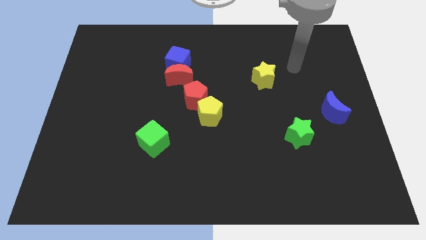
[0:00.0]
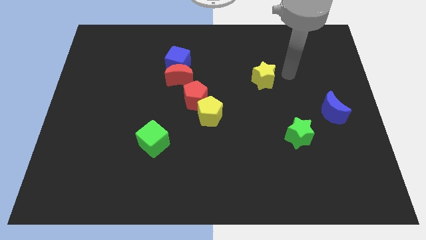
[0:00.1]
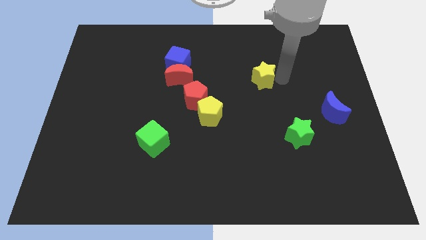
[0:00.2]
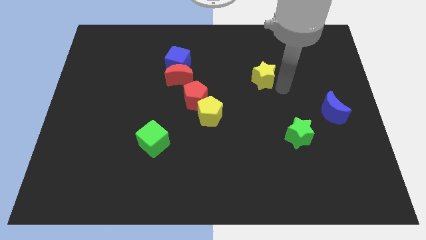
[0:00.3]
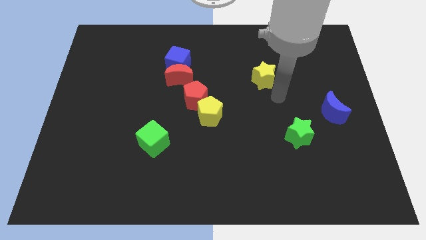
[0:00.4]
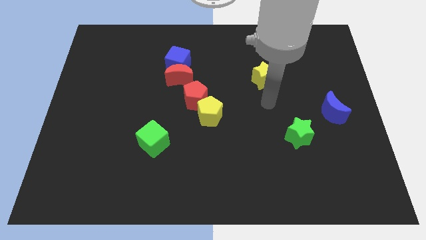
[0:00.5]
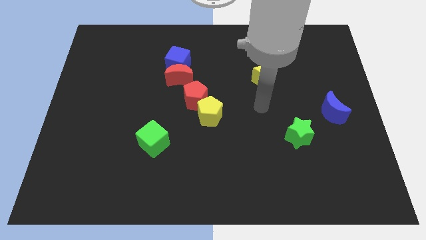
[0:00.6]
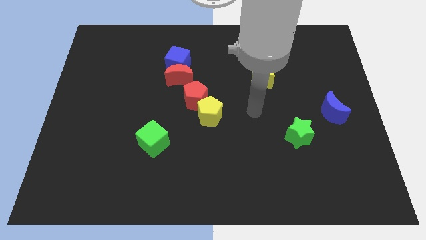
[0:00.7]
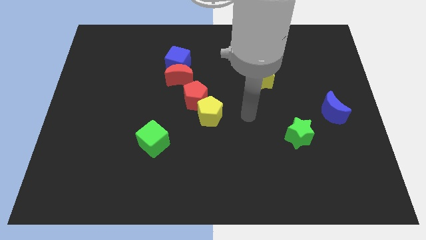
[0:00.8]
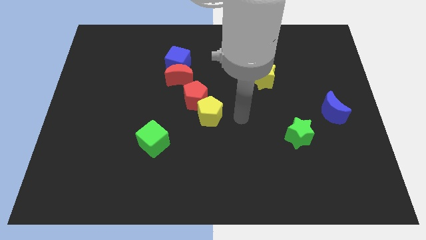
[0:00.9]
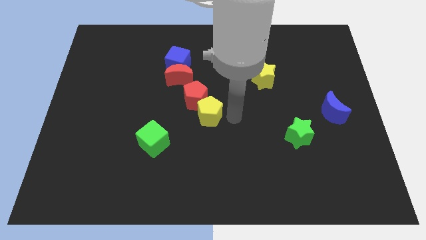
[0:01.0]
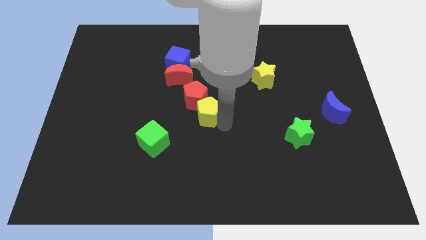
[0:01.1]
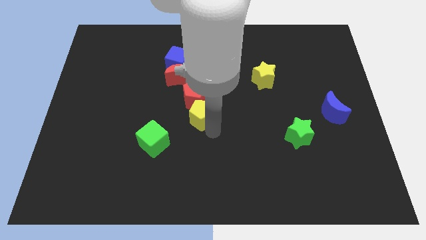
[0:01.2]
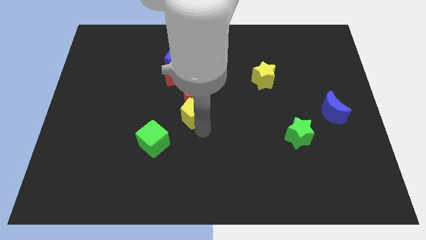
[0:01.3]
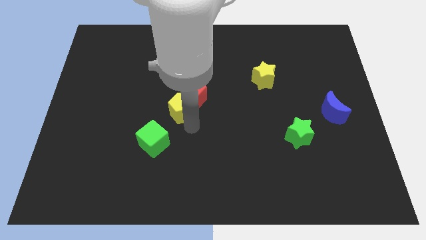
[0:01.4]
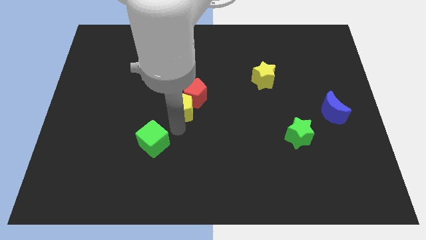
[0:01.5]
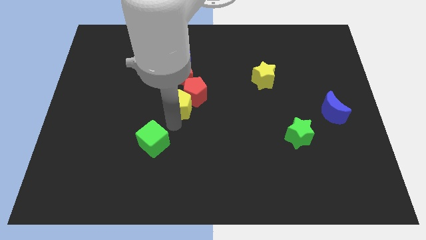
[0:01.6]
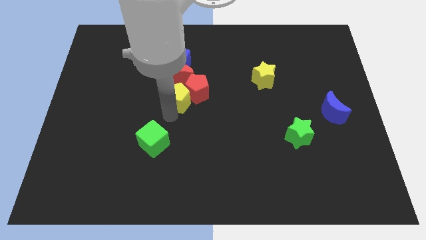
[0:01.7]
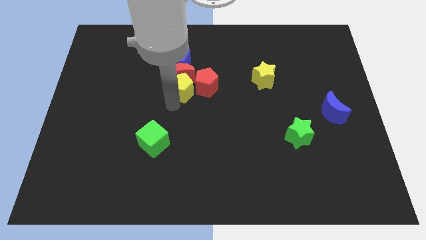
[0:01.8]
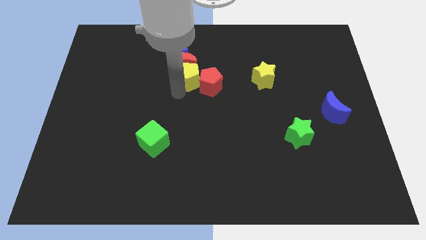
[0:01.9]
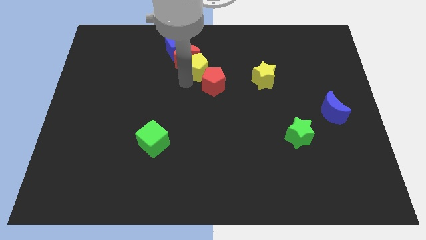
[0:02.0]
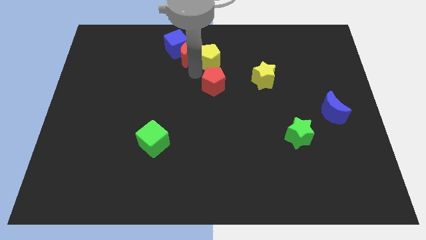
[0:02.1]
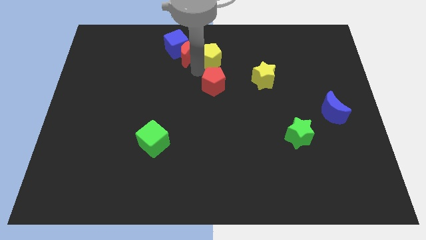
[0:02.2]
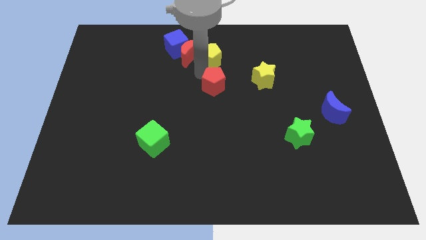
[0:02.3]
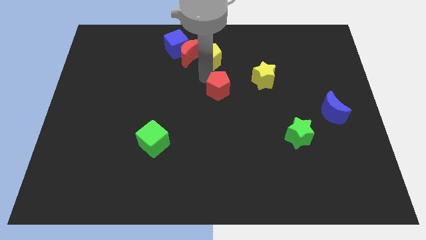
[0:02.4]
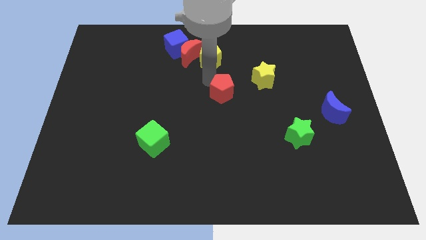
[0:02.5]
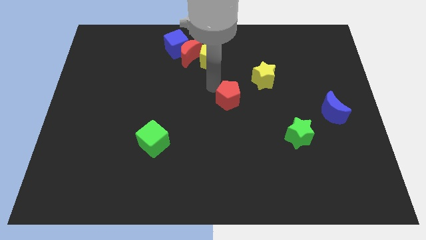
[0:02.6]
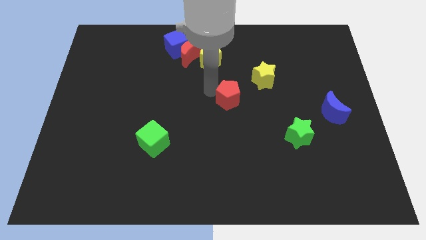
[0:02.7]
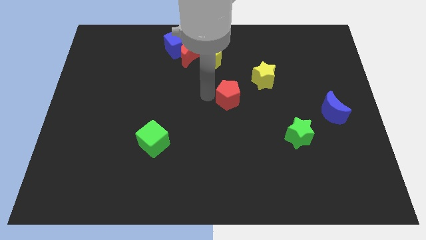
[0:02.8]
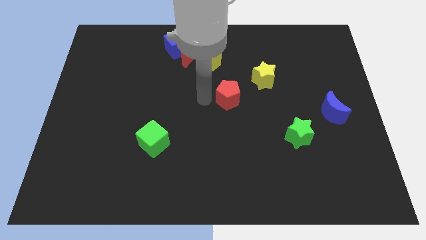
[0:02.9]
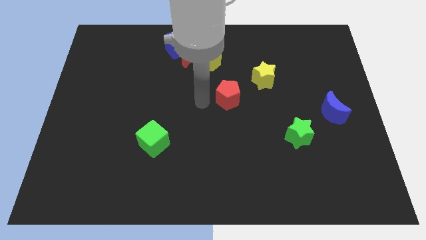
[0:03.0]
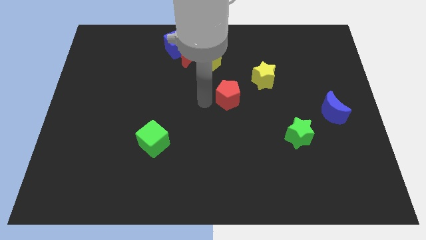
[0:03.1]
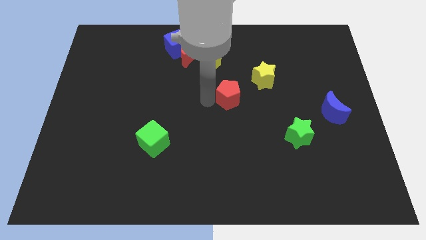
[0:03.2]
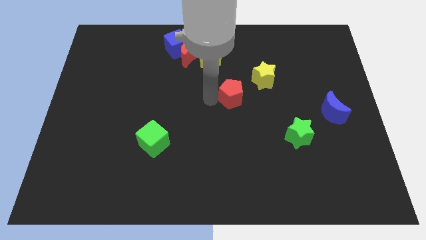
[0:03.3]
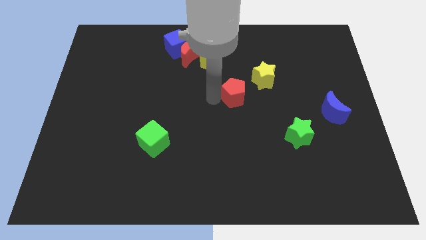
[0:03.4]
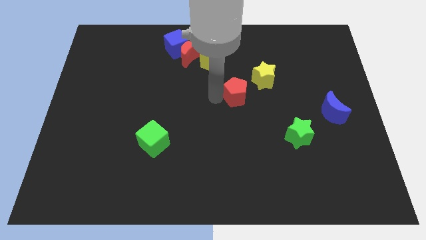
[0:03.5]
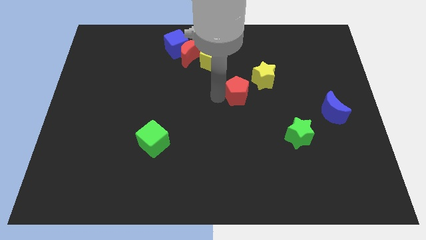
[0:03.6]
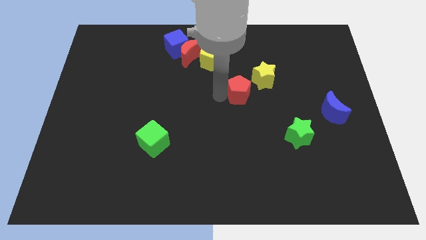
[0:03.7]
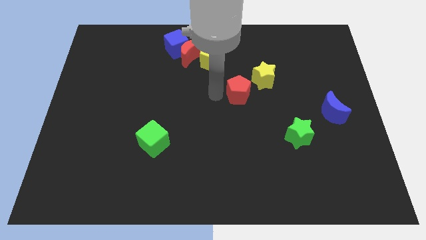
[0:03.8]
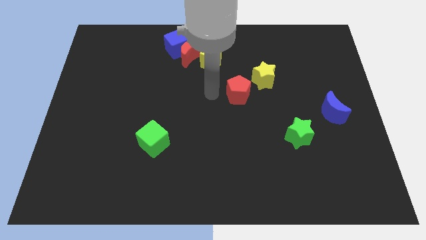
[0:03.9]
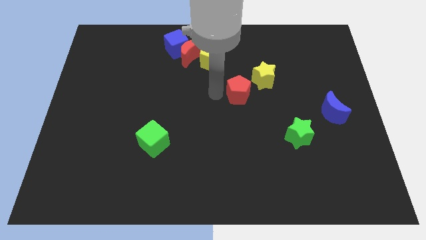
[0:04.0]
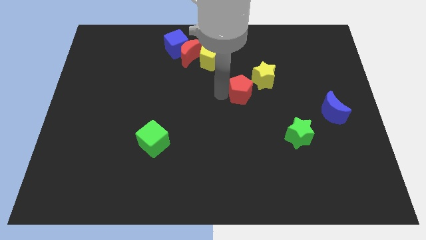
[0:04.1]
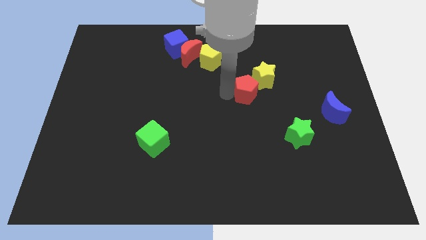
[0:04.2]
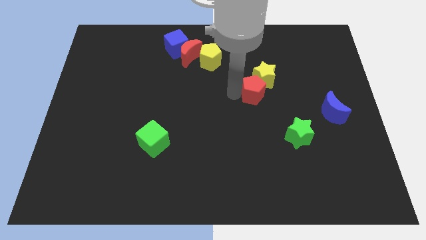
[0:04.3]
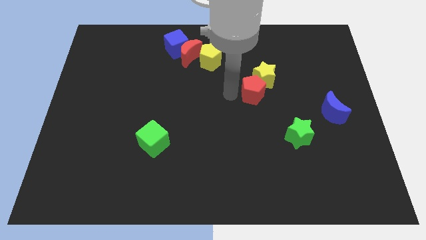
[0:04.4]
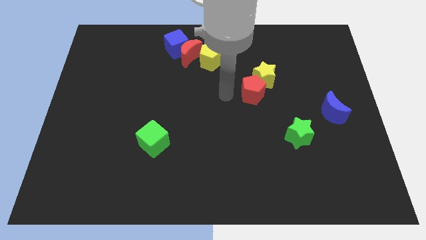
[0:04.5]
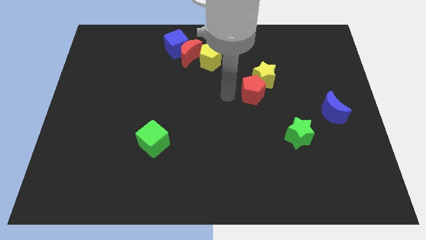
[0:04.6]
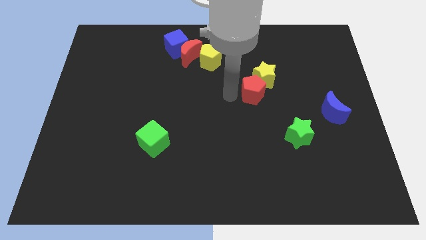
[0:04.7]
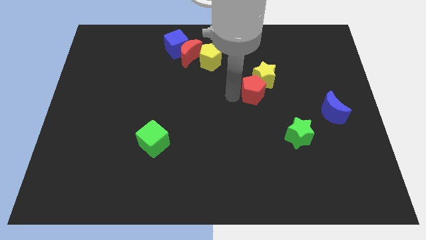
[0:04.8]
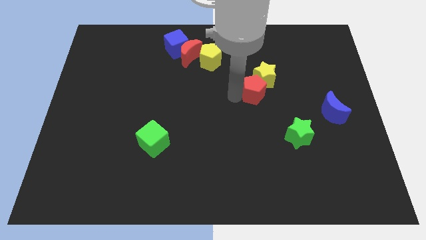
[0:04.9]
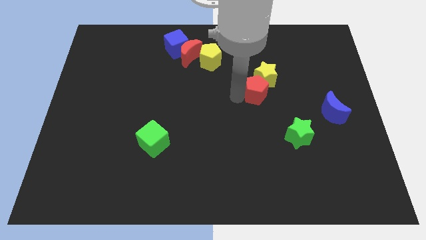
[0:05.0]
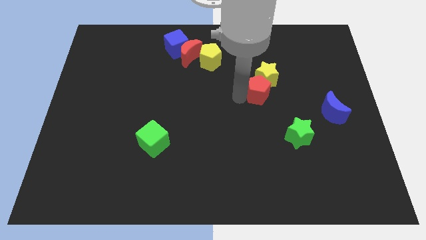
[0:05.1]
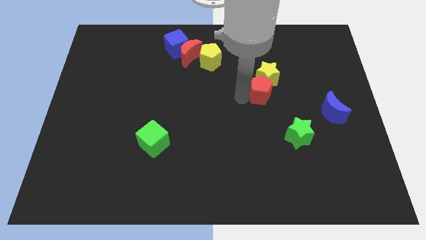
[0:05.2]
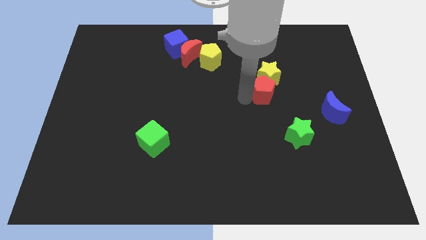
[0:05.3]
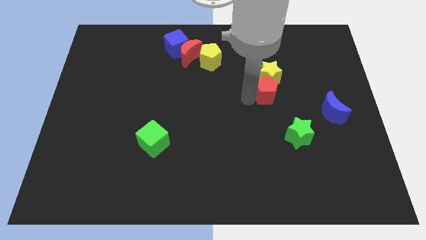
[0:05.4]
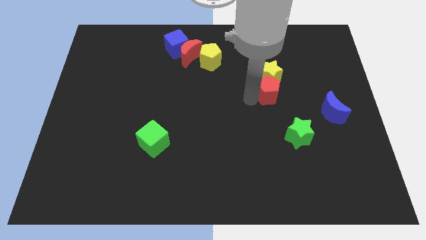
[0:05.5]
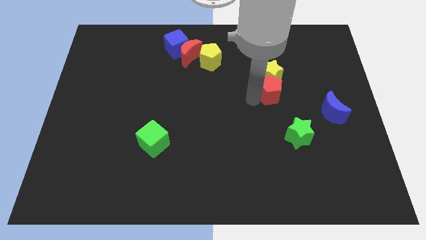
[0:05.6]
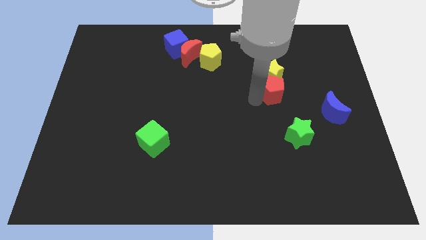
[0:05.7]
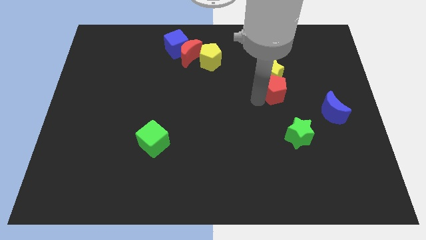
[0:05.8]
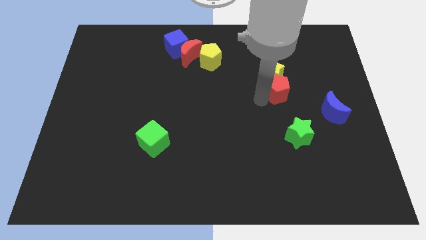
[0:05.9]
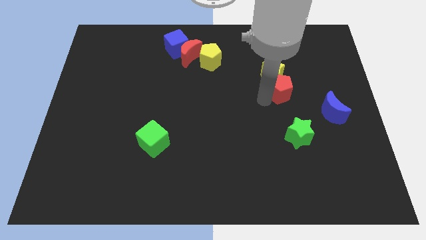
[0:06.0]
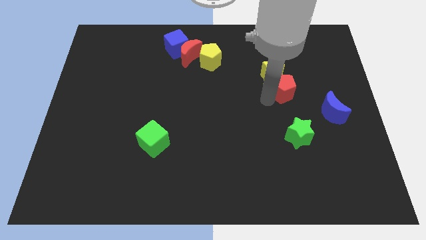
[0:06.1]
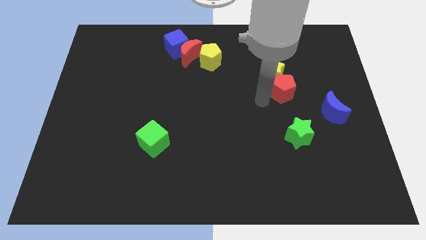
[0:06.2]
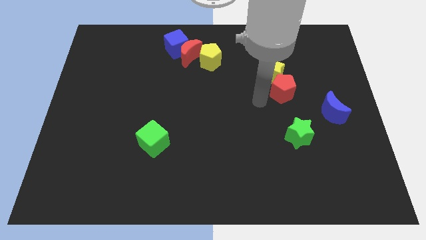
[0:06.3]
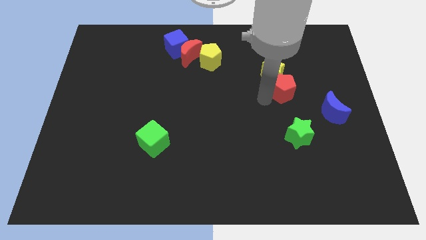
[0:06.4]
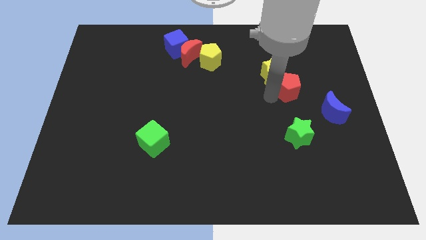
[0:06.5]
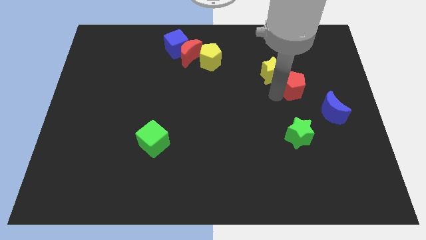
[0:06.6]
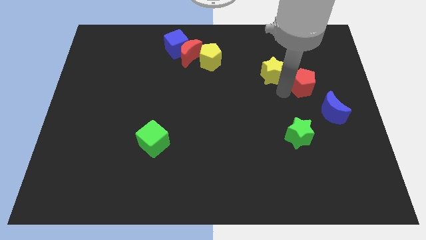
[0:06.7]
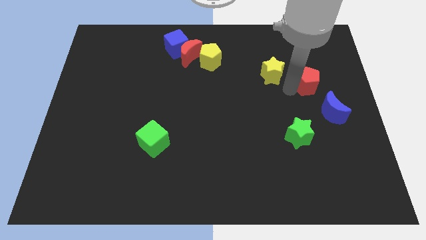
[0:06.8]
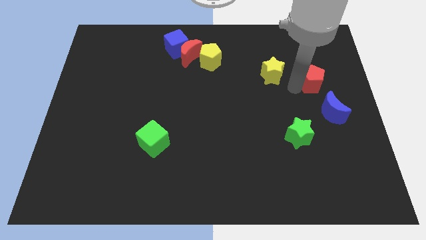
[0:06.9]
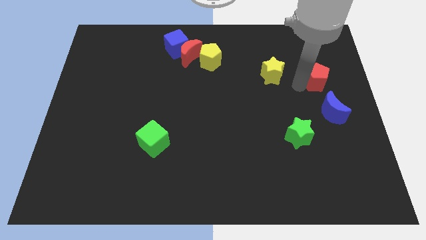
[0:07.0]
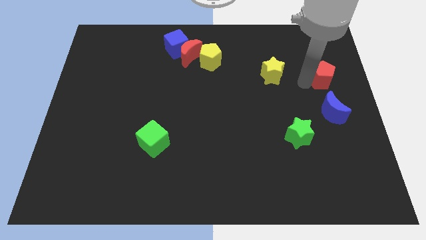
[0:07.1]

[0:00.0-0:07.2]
slide the red pentagon to the right side
